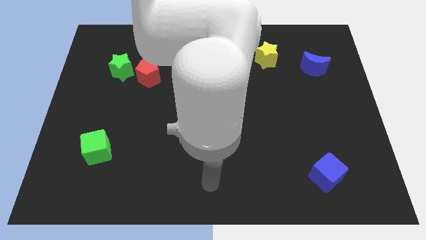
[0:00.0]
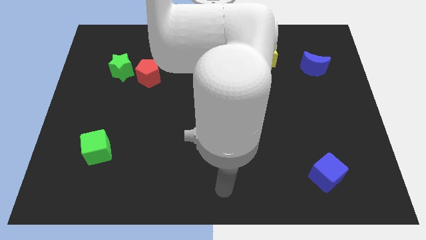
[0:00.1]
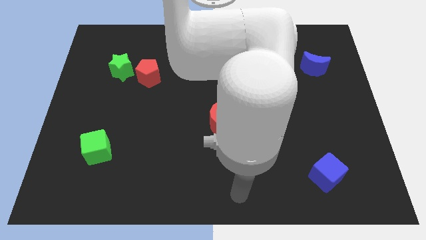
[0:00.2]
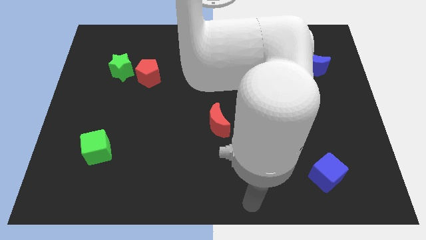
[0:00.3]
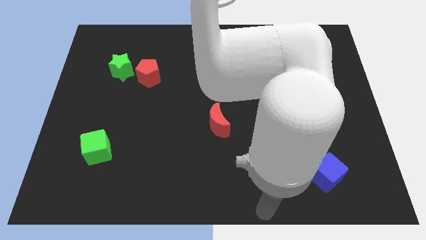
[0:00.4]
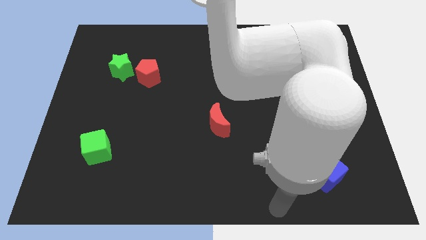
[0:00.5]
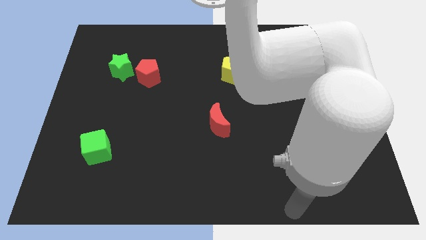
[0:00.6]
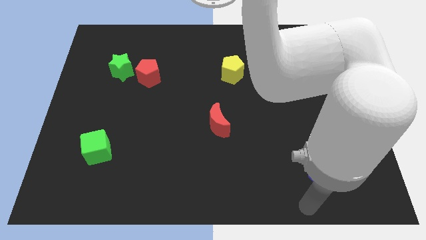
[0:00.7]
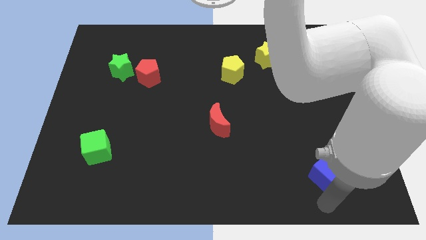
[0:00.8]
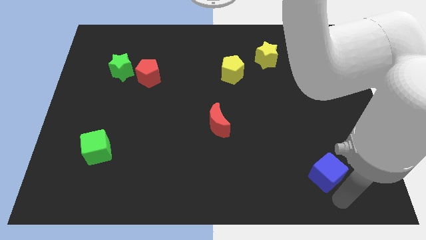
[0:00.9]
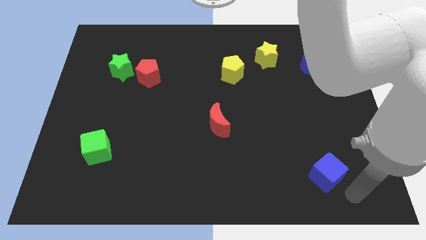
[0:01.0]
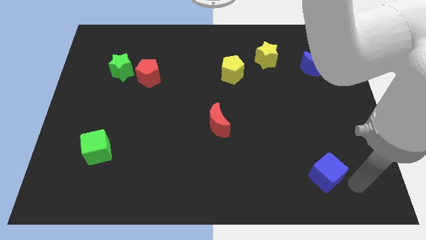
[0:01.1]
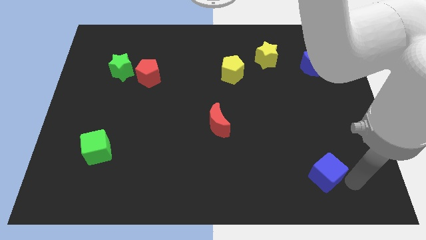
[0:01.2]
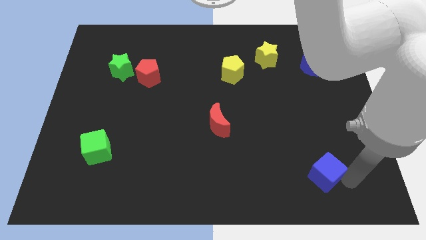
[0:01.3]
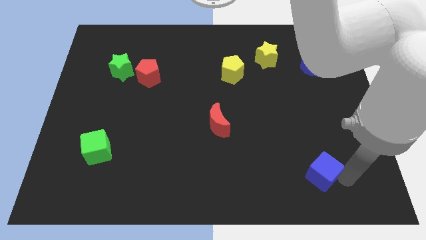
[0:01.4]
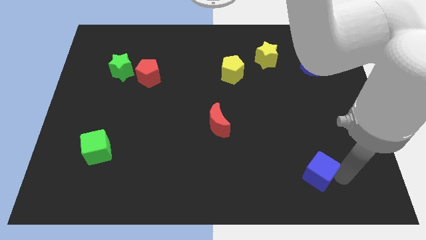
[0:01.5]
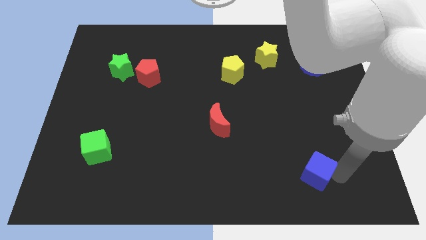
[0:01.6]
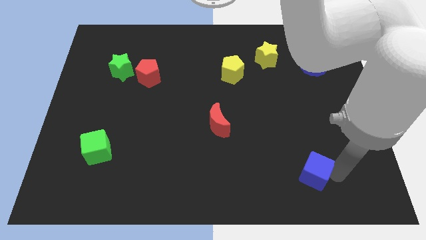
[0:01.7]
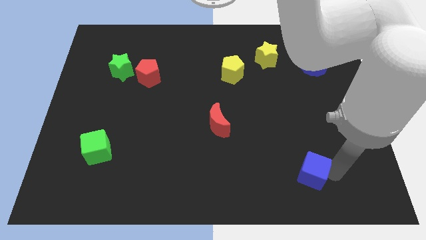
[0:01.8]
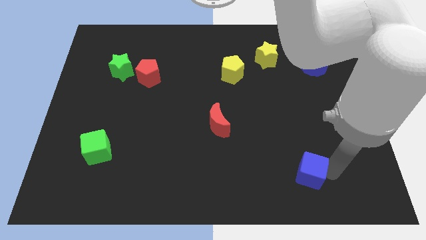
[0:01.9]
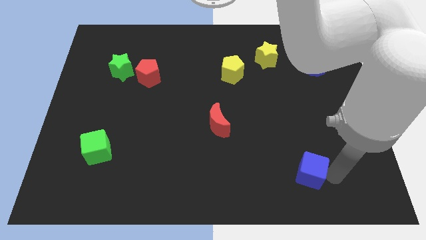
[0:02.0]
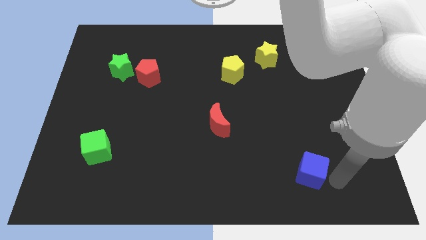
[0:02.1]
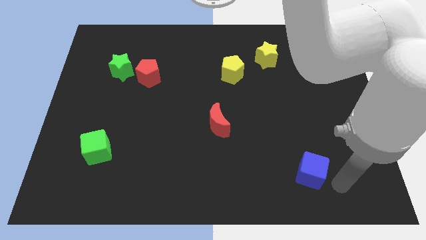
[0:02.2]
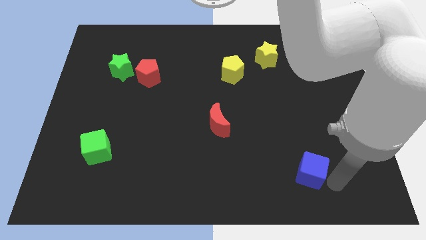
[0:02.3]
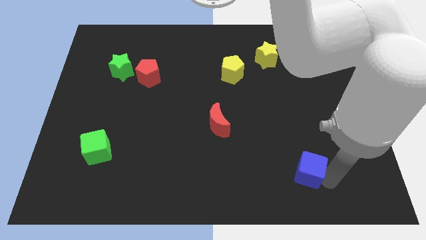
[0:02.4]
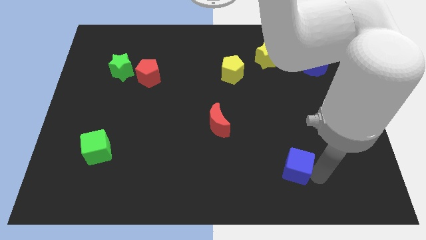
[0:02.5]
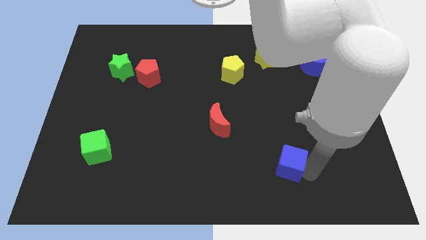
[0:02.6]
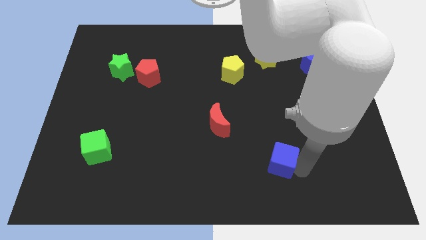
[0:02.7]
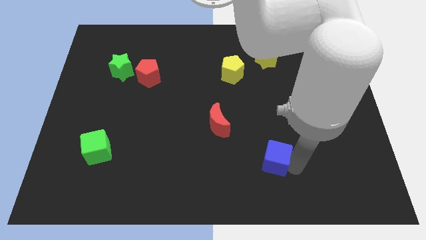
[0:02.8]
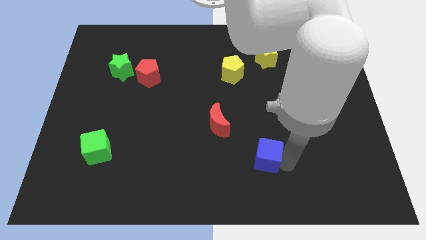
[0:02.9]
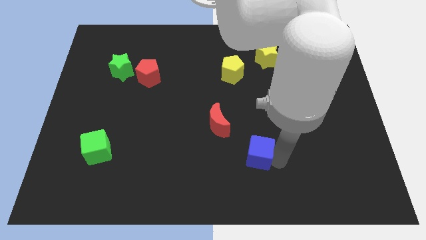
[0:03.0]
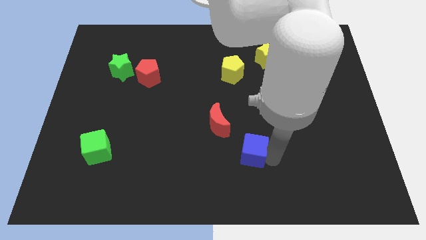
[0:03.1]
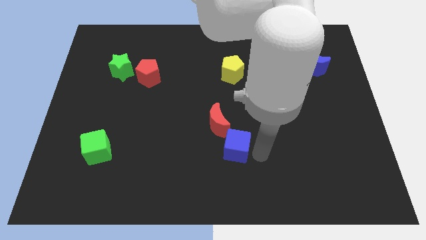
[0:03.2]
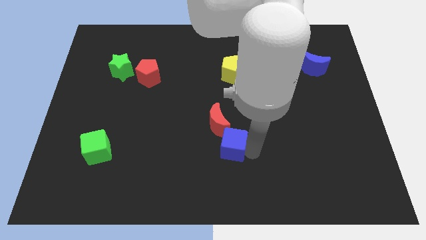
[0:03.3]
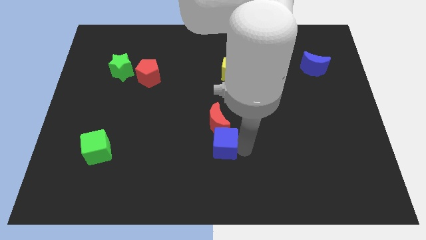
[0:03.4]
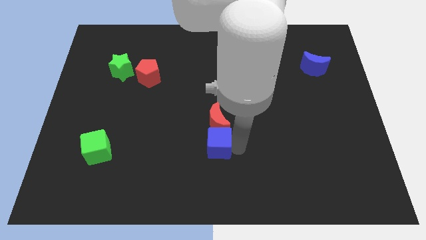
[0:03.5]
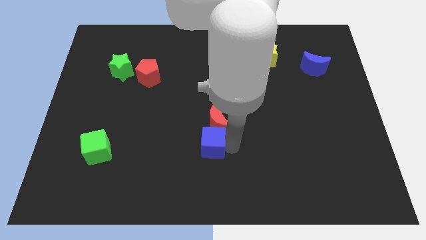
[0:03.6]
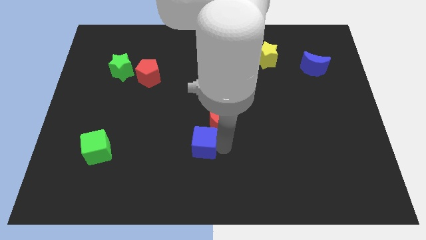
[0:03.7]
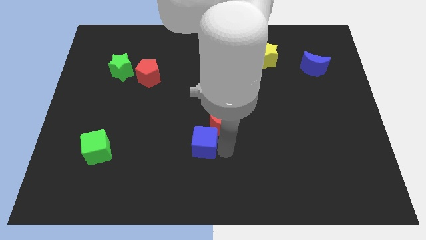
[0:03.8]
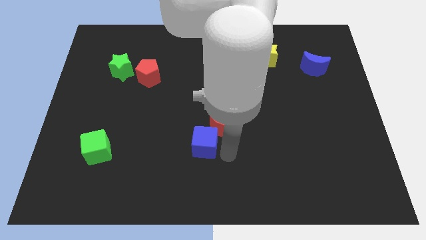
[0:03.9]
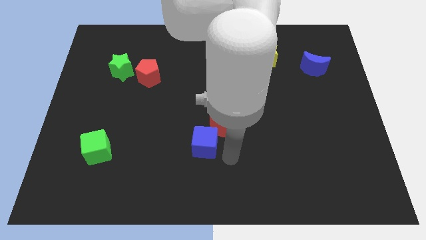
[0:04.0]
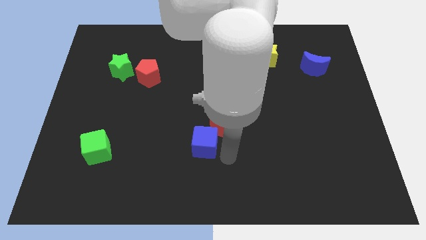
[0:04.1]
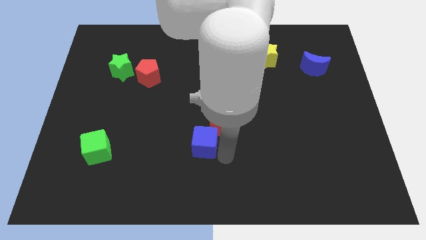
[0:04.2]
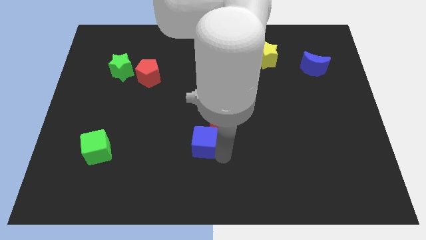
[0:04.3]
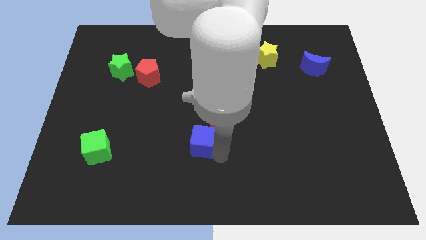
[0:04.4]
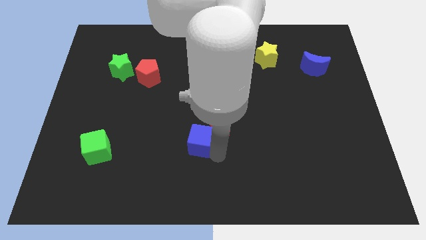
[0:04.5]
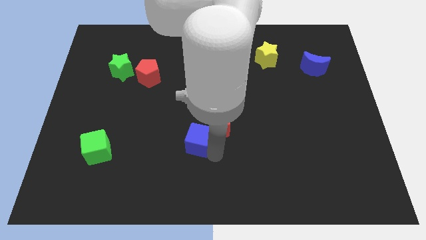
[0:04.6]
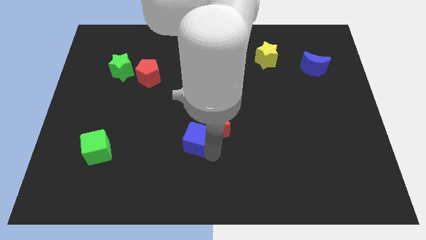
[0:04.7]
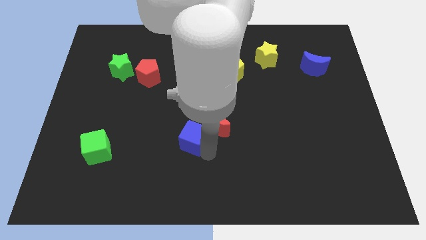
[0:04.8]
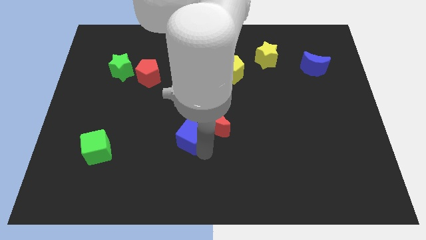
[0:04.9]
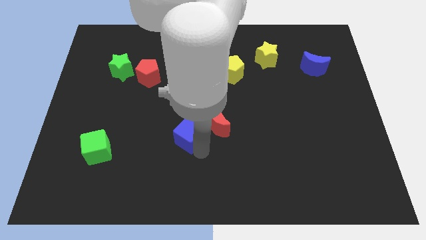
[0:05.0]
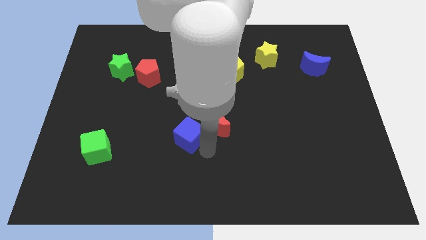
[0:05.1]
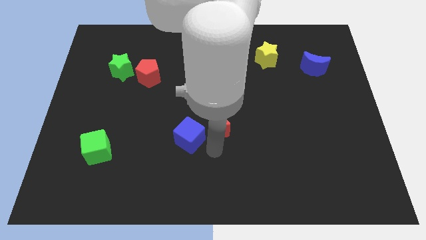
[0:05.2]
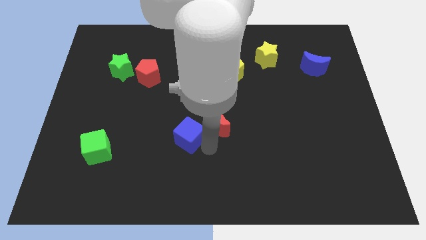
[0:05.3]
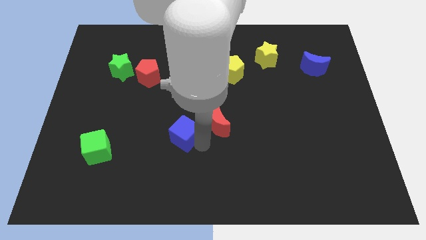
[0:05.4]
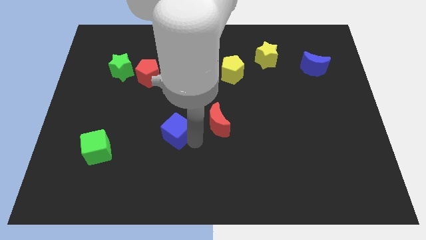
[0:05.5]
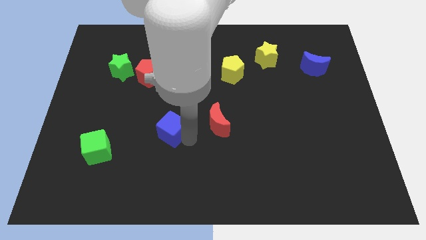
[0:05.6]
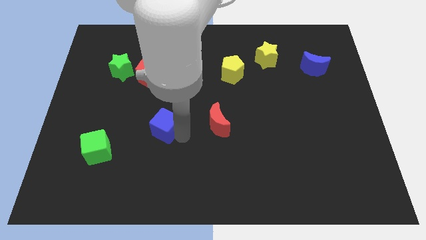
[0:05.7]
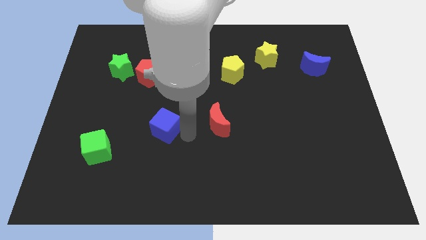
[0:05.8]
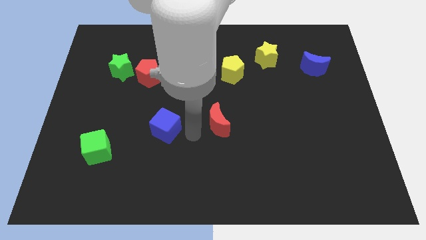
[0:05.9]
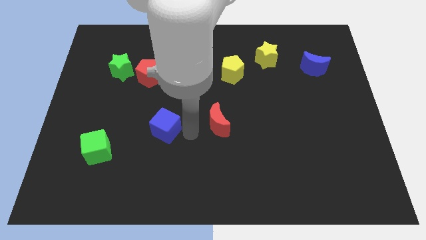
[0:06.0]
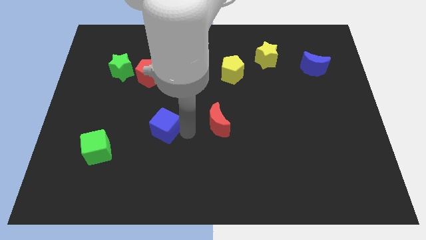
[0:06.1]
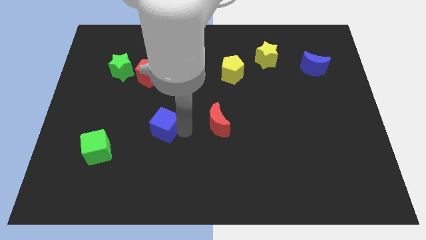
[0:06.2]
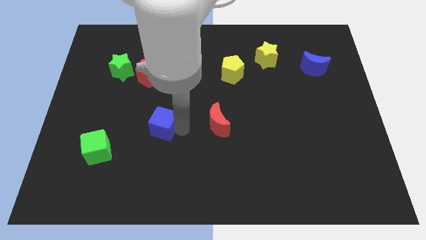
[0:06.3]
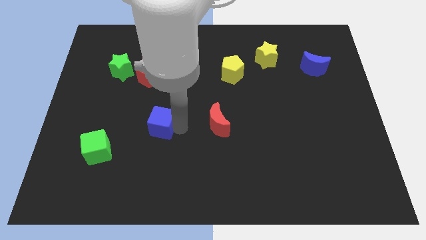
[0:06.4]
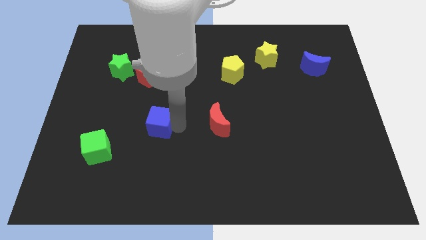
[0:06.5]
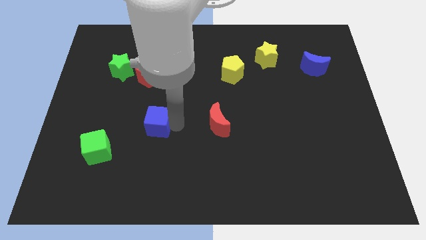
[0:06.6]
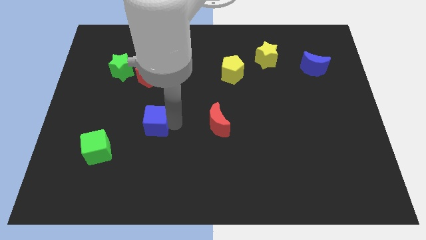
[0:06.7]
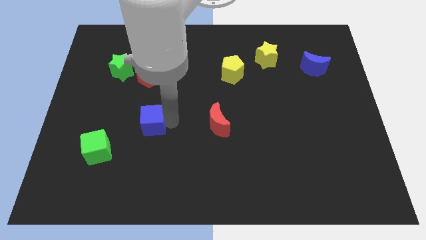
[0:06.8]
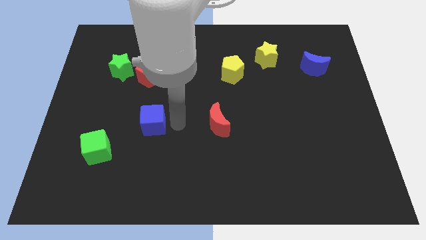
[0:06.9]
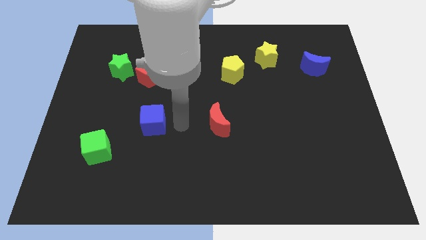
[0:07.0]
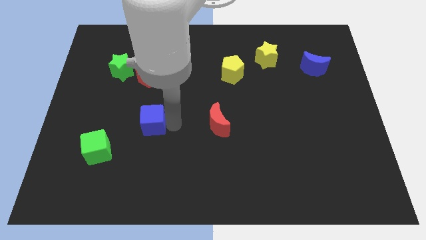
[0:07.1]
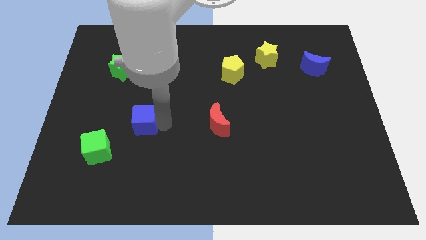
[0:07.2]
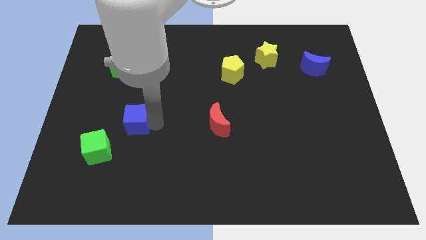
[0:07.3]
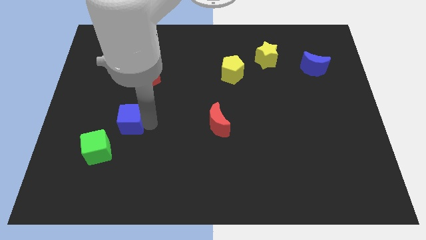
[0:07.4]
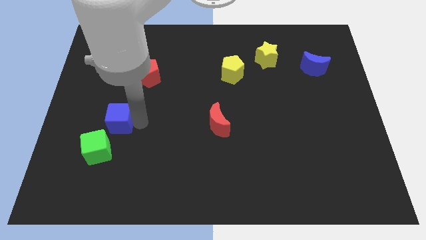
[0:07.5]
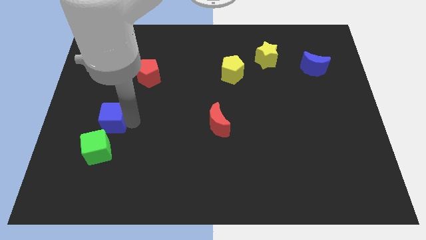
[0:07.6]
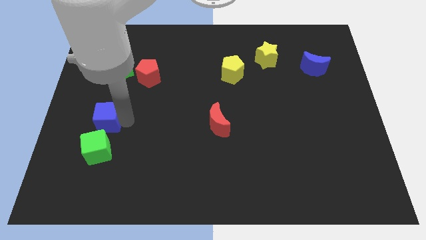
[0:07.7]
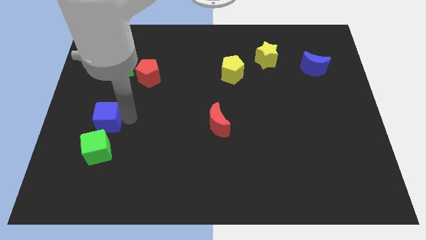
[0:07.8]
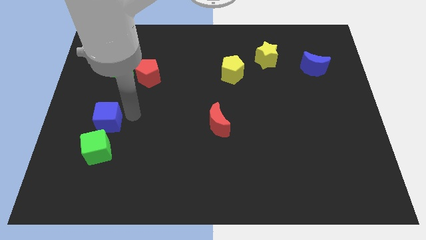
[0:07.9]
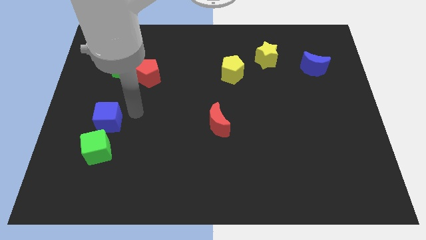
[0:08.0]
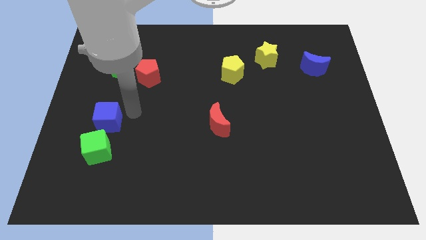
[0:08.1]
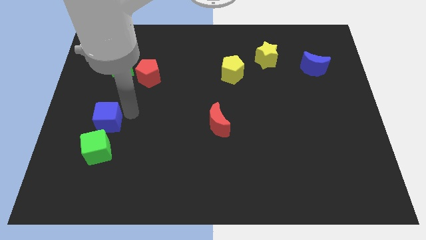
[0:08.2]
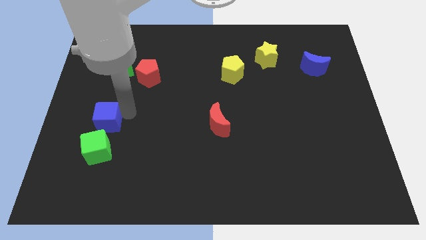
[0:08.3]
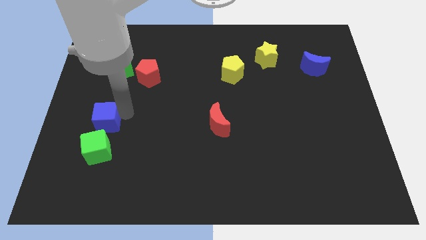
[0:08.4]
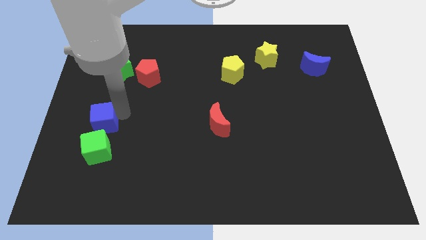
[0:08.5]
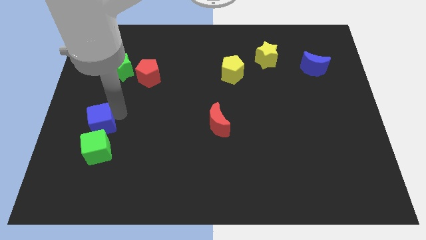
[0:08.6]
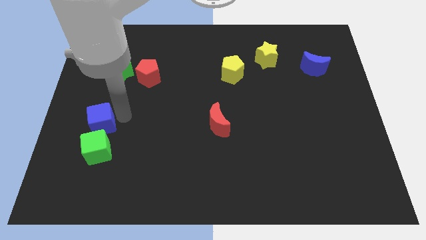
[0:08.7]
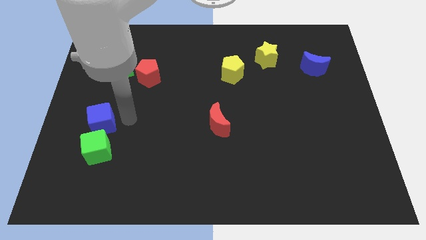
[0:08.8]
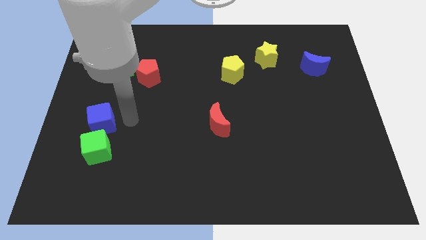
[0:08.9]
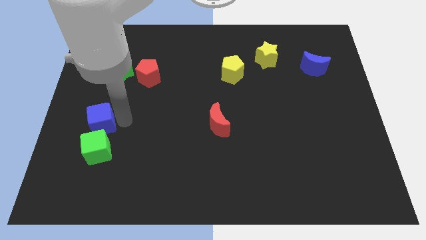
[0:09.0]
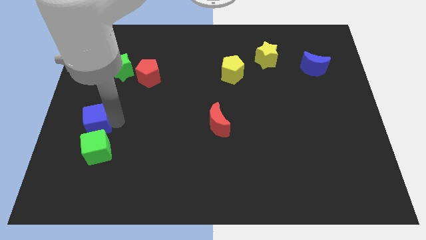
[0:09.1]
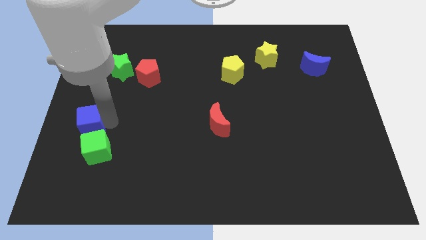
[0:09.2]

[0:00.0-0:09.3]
slide the blue cube to the center left
